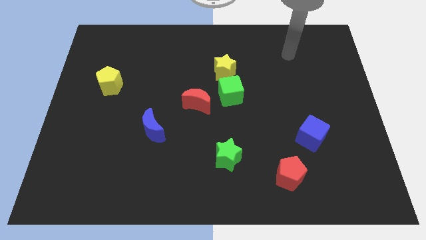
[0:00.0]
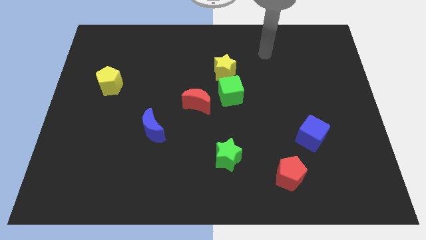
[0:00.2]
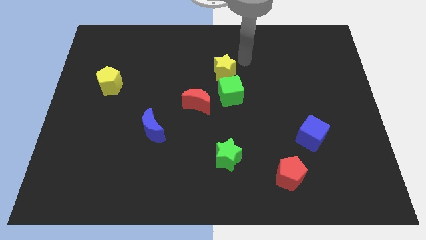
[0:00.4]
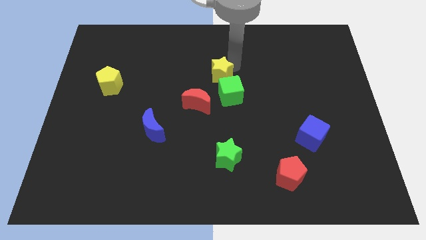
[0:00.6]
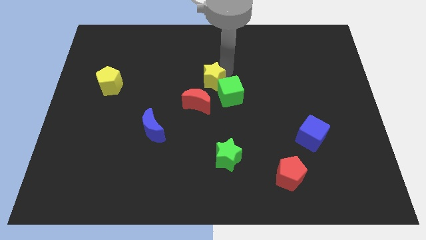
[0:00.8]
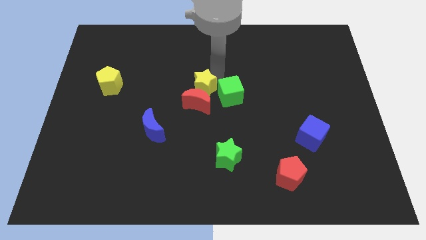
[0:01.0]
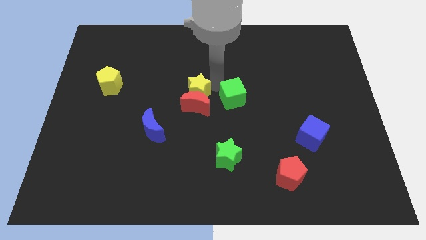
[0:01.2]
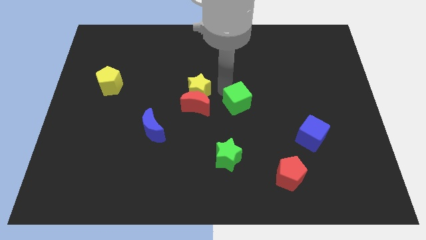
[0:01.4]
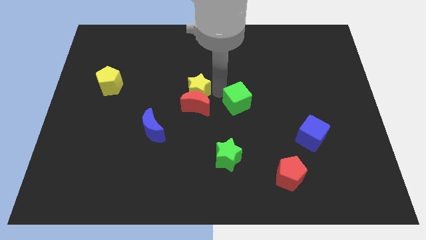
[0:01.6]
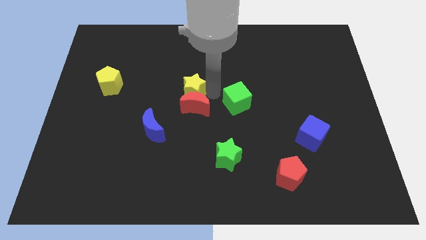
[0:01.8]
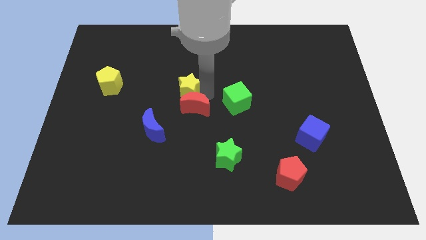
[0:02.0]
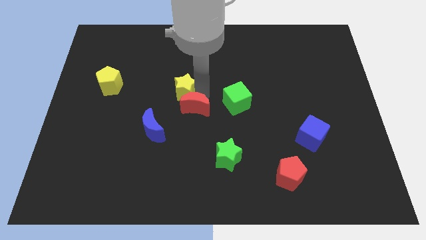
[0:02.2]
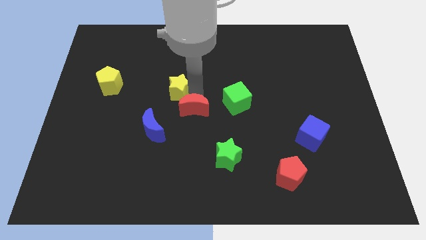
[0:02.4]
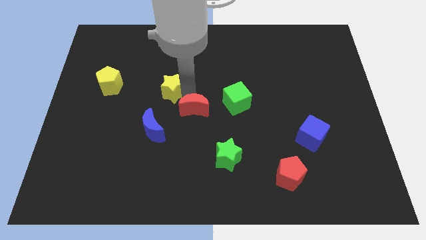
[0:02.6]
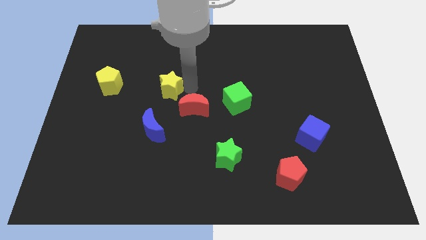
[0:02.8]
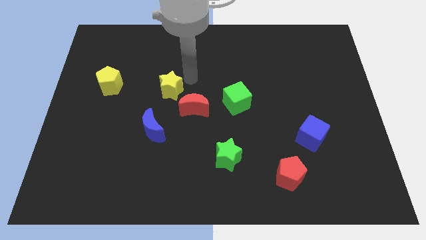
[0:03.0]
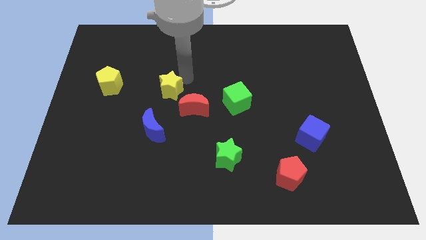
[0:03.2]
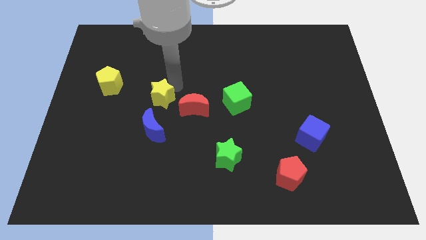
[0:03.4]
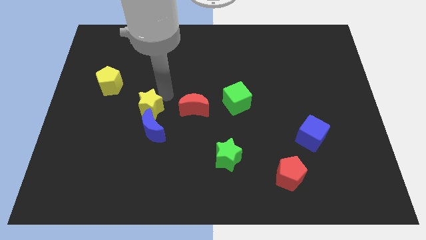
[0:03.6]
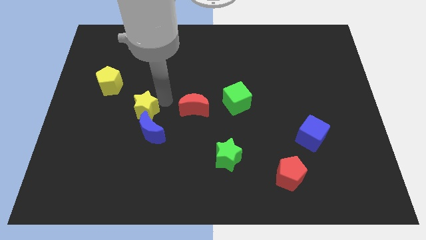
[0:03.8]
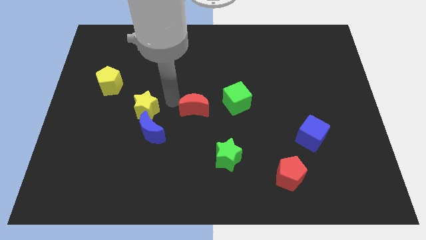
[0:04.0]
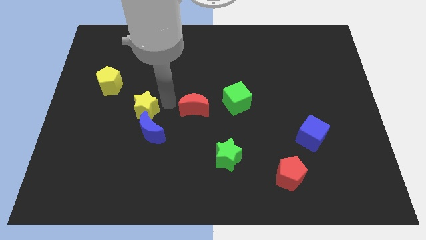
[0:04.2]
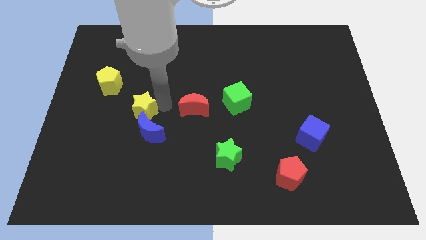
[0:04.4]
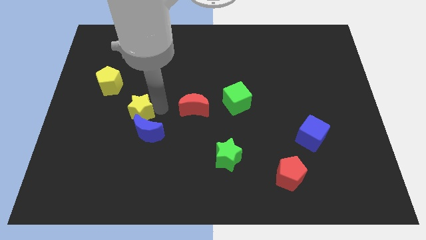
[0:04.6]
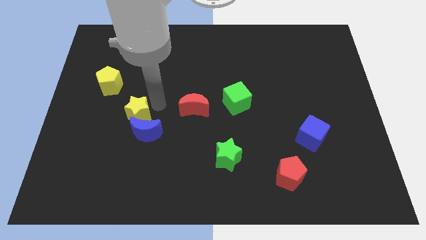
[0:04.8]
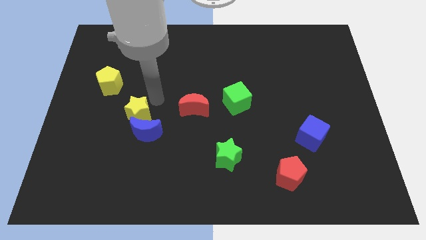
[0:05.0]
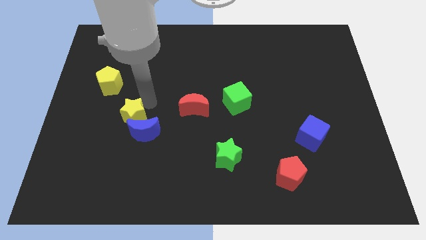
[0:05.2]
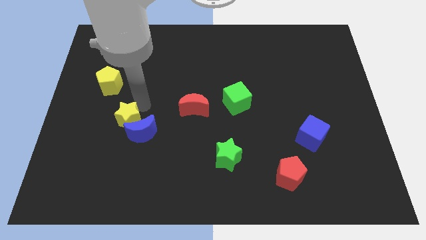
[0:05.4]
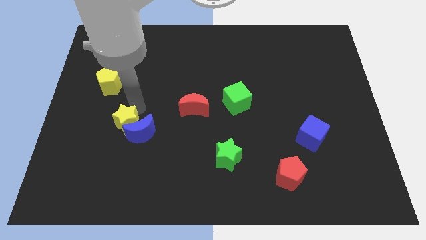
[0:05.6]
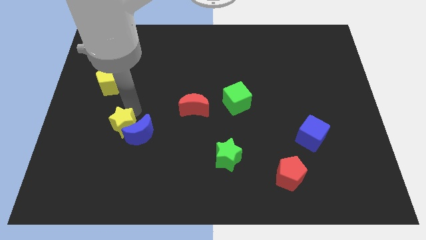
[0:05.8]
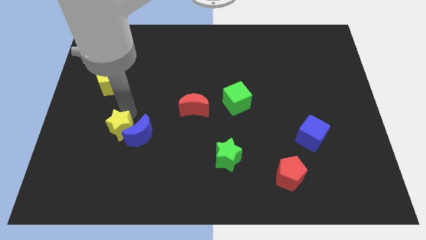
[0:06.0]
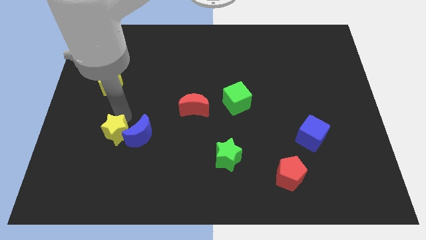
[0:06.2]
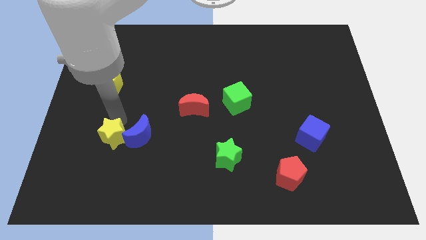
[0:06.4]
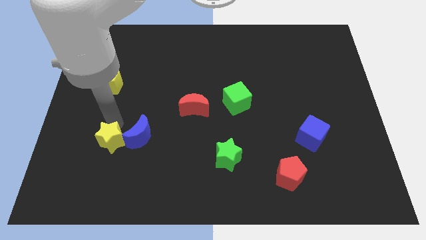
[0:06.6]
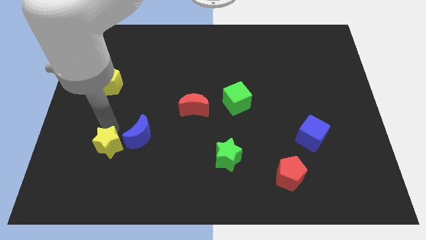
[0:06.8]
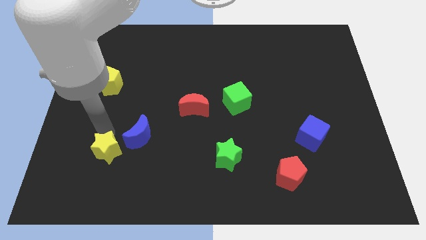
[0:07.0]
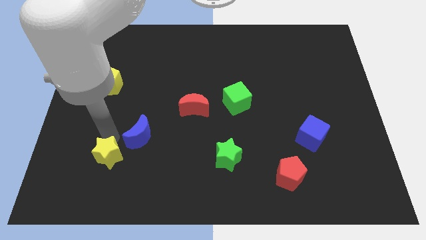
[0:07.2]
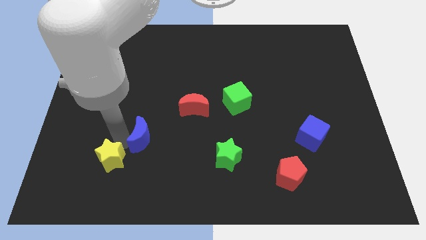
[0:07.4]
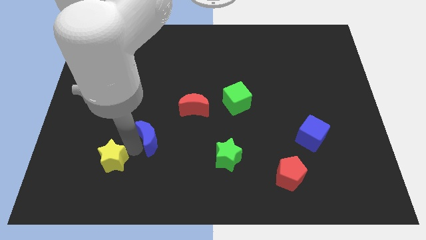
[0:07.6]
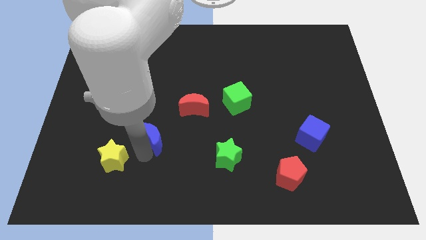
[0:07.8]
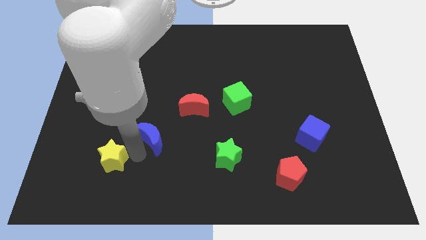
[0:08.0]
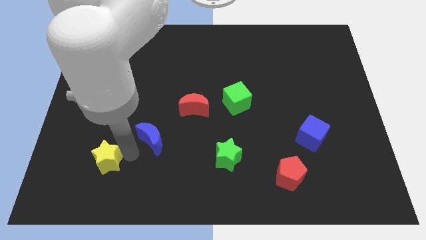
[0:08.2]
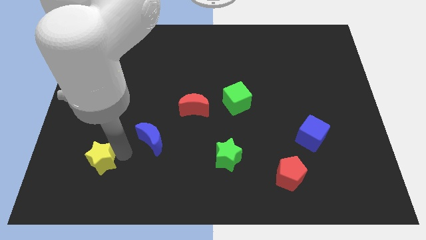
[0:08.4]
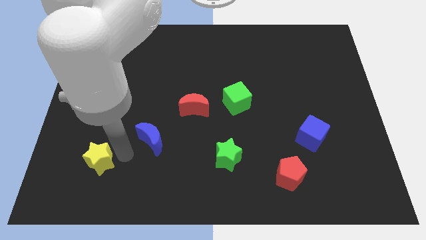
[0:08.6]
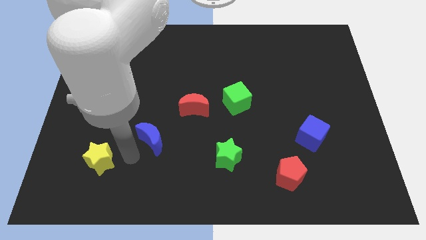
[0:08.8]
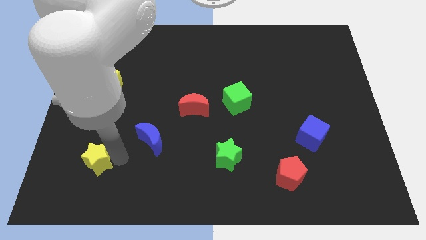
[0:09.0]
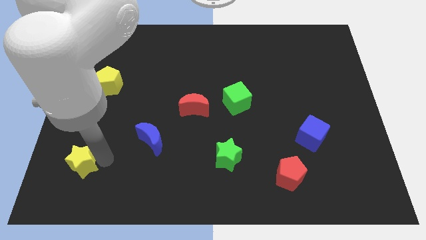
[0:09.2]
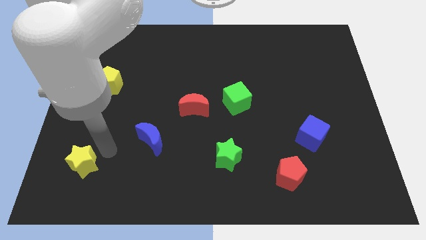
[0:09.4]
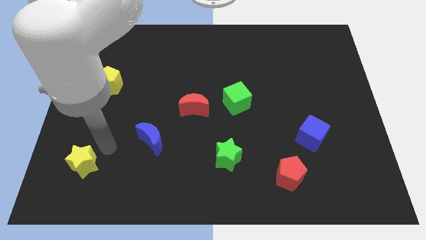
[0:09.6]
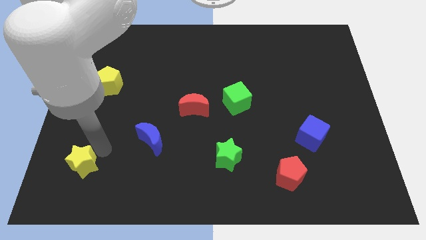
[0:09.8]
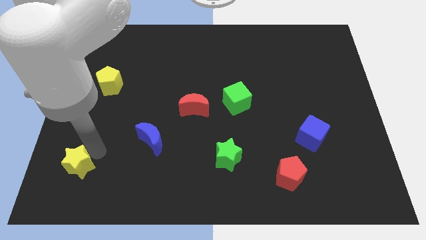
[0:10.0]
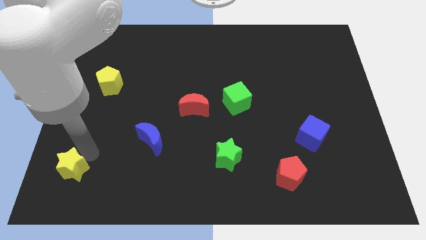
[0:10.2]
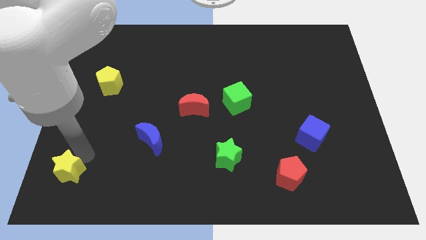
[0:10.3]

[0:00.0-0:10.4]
slide the yellow star to the bottom left corner
